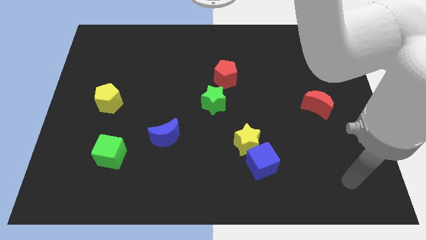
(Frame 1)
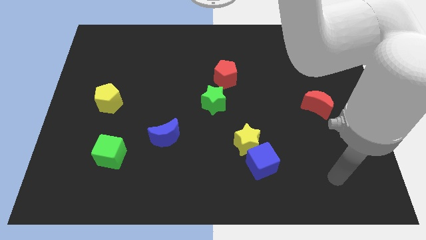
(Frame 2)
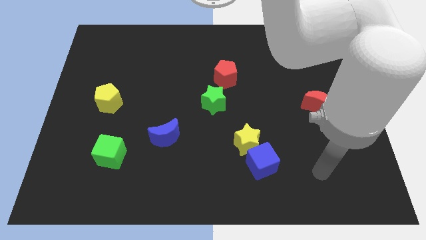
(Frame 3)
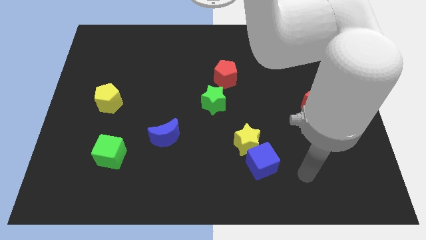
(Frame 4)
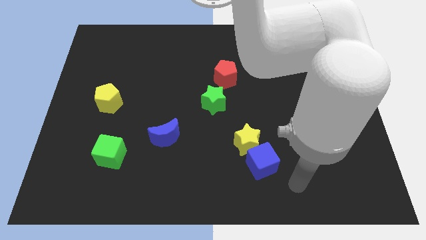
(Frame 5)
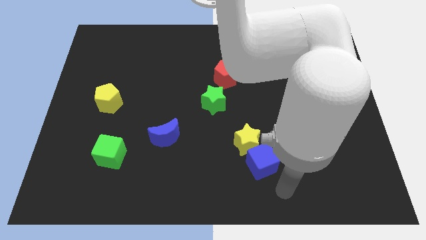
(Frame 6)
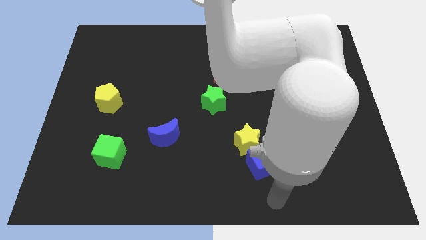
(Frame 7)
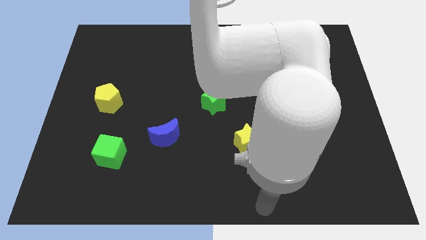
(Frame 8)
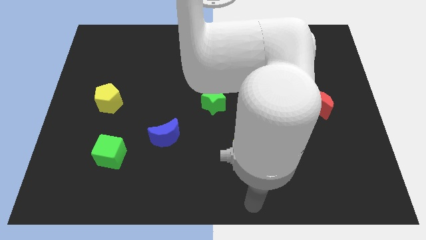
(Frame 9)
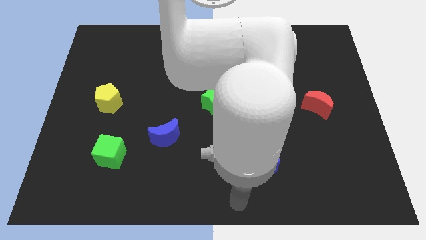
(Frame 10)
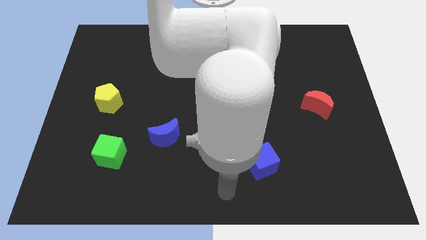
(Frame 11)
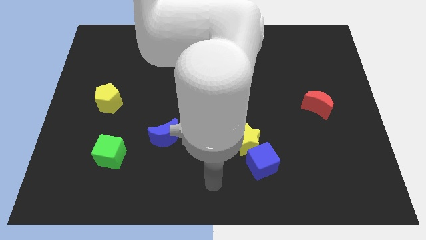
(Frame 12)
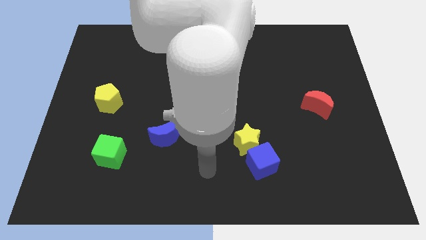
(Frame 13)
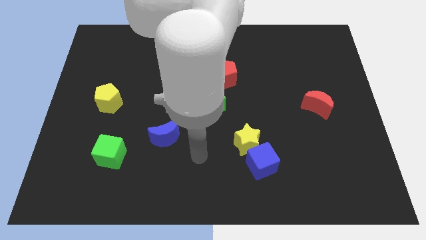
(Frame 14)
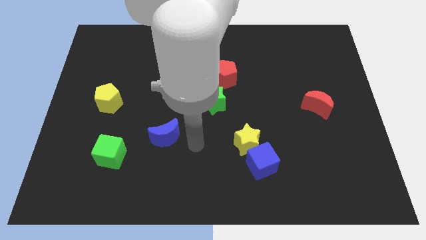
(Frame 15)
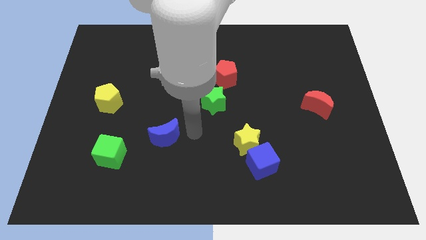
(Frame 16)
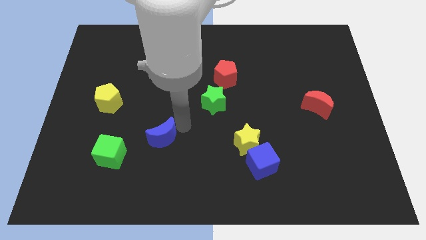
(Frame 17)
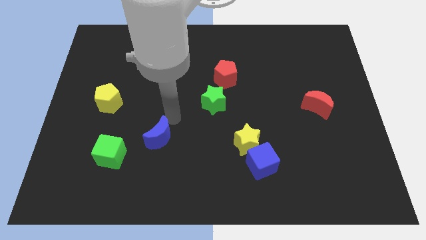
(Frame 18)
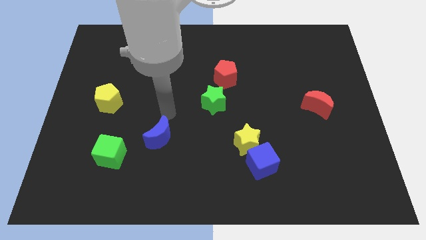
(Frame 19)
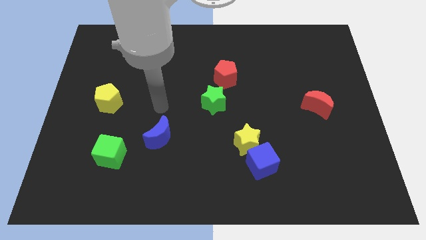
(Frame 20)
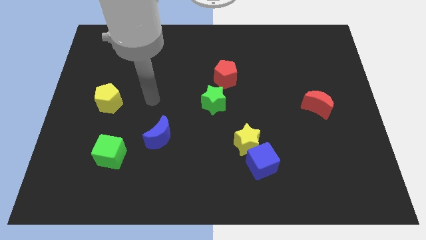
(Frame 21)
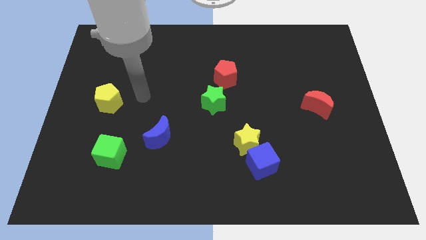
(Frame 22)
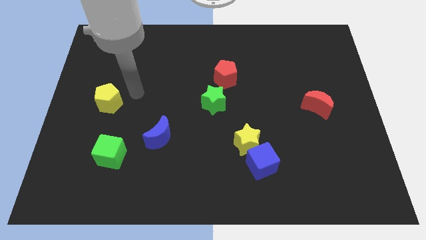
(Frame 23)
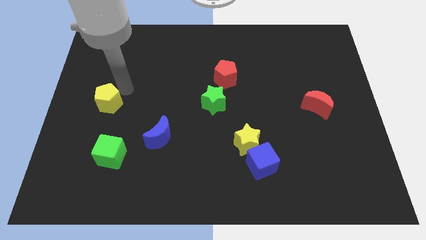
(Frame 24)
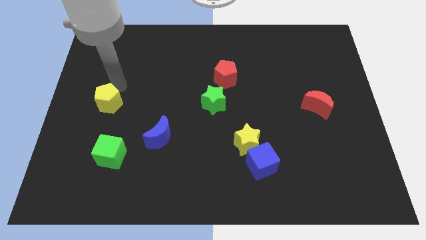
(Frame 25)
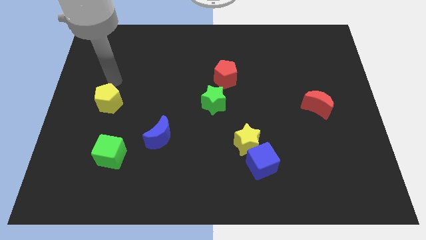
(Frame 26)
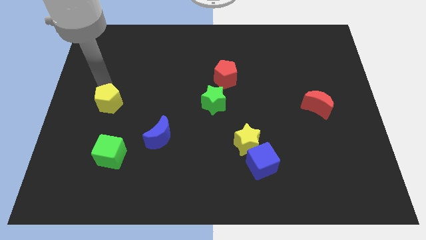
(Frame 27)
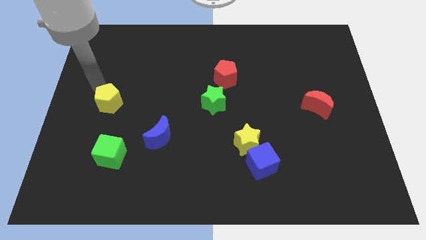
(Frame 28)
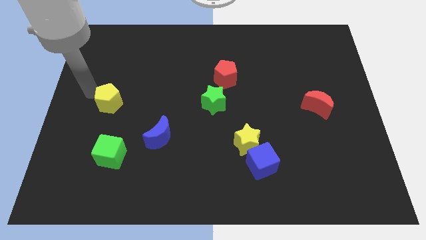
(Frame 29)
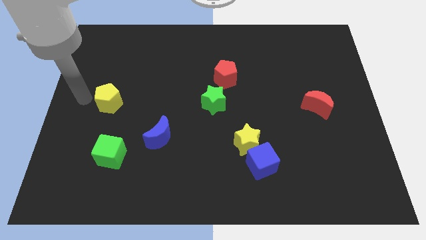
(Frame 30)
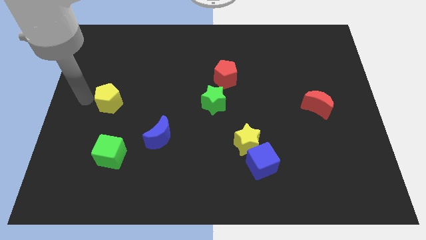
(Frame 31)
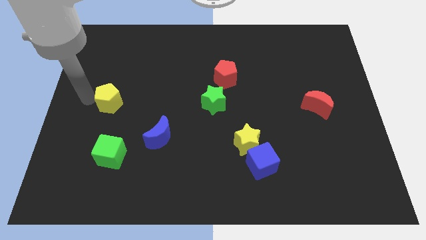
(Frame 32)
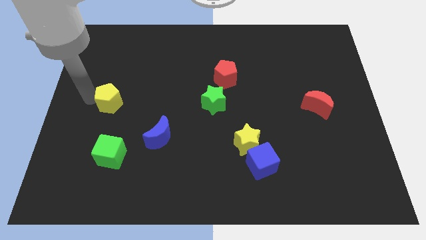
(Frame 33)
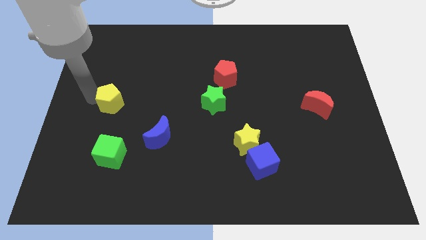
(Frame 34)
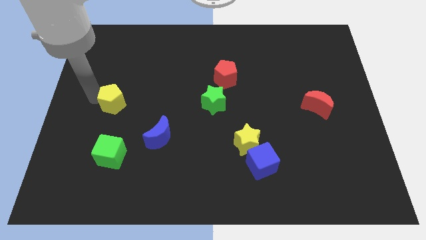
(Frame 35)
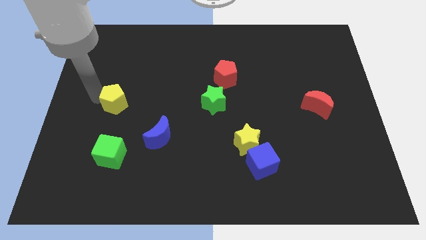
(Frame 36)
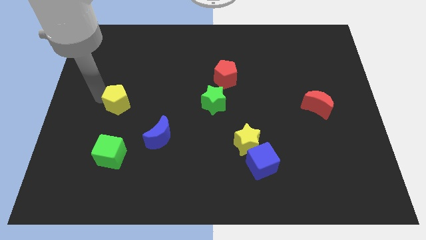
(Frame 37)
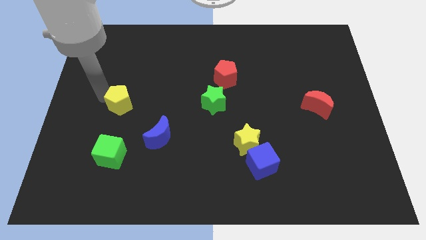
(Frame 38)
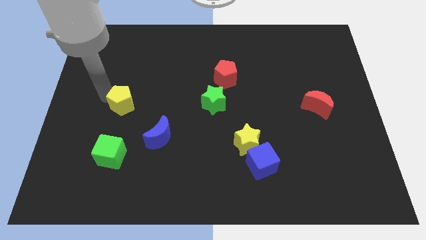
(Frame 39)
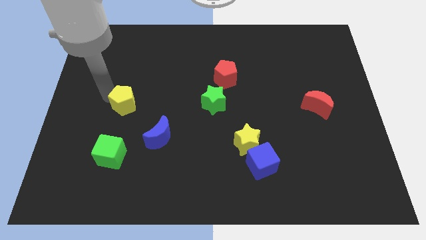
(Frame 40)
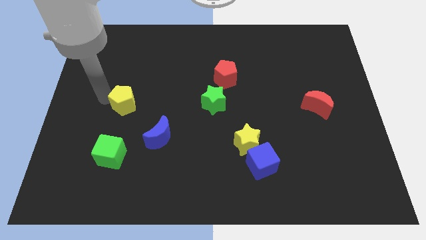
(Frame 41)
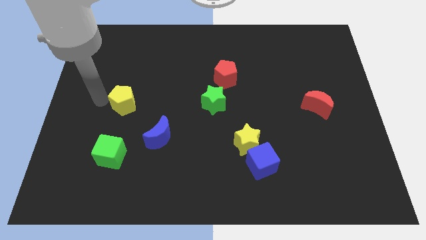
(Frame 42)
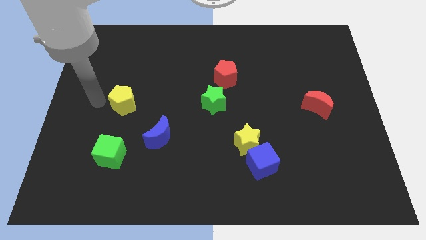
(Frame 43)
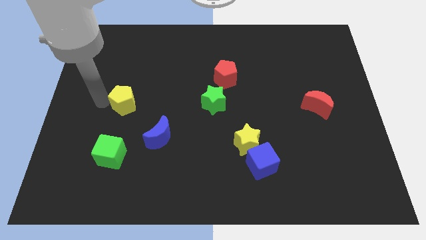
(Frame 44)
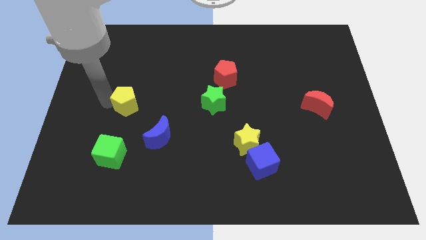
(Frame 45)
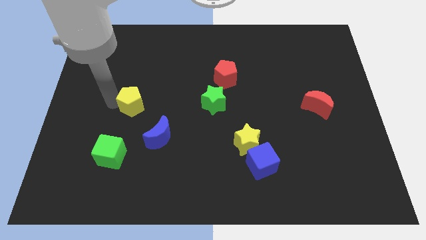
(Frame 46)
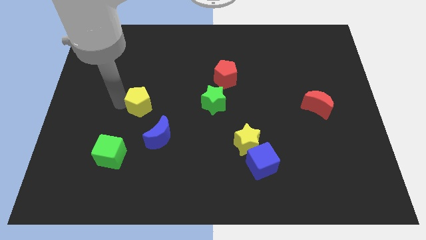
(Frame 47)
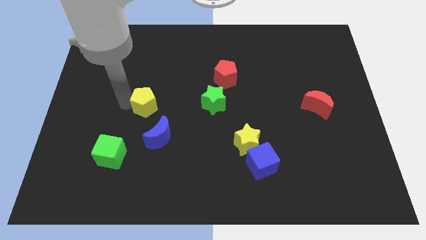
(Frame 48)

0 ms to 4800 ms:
put the yellow pentagon to the top side of the blue moon

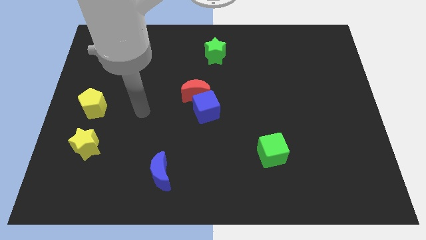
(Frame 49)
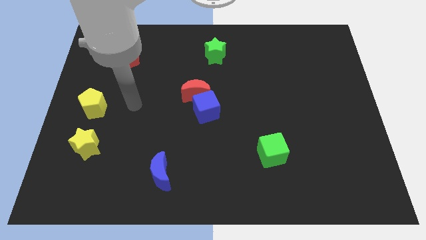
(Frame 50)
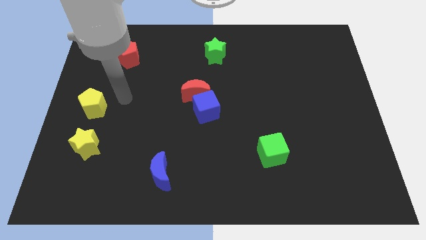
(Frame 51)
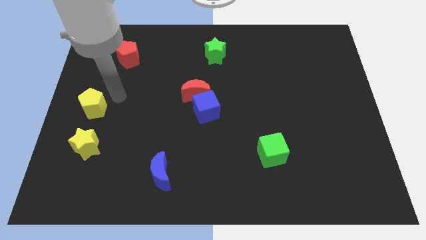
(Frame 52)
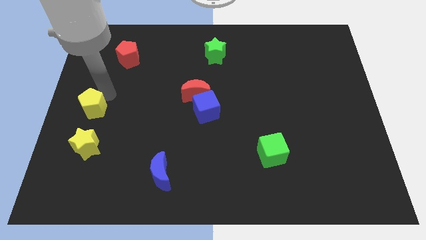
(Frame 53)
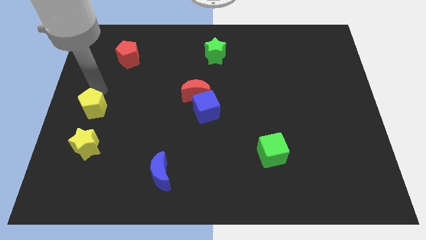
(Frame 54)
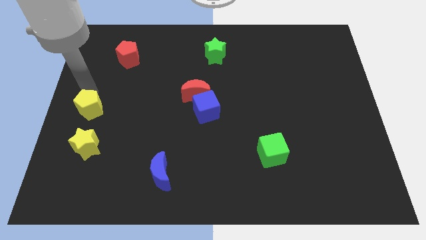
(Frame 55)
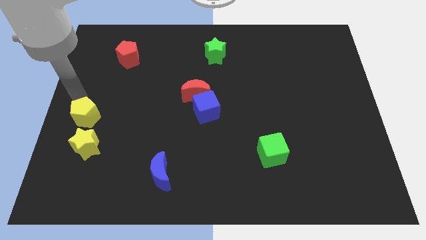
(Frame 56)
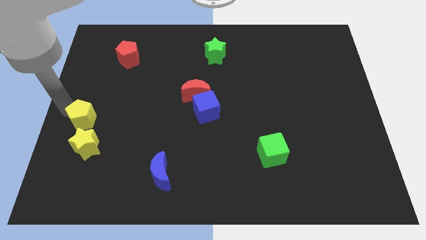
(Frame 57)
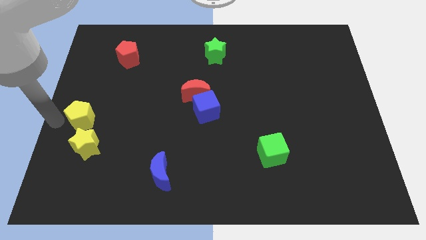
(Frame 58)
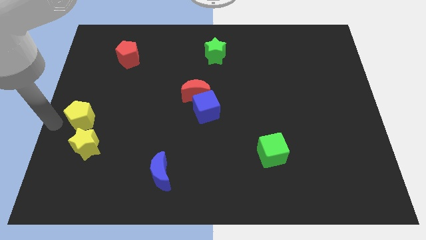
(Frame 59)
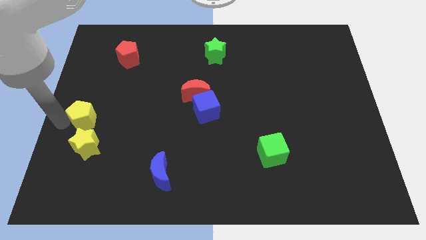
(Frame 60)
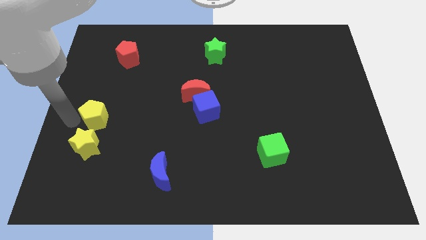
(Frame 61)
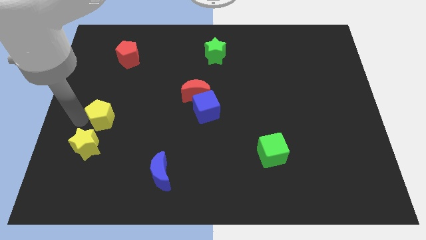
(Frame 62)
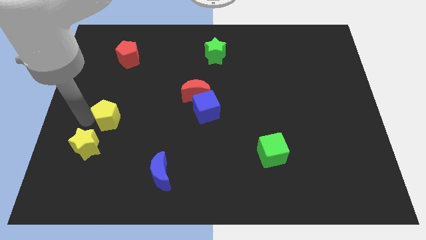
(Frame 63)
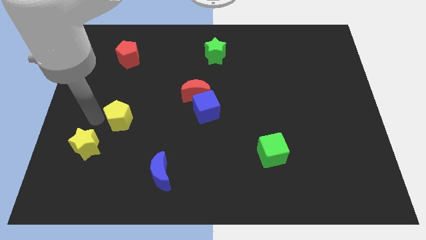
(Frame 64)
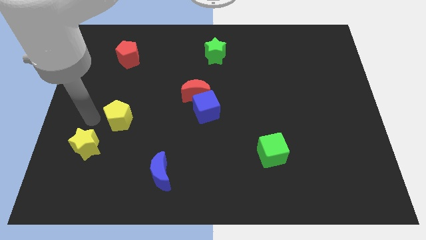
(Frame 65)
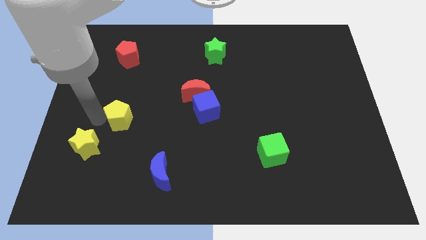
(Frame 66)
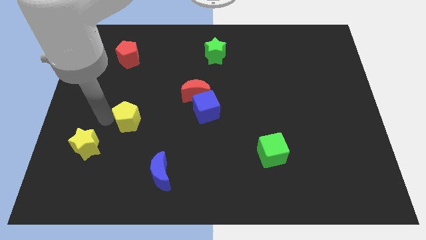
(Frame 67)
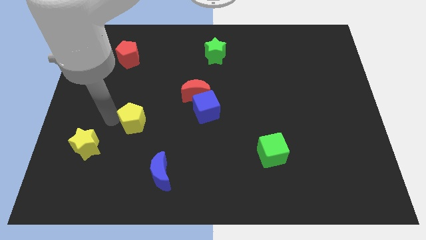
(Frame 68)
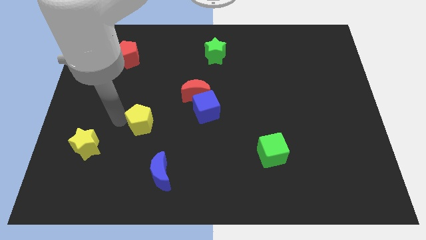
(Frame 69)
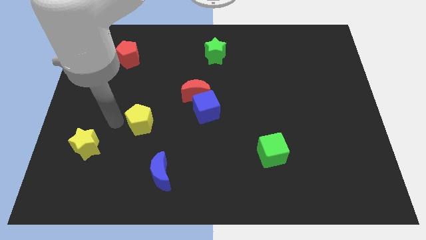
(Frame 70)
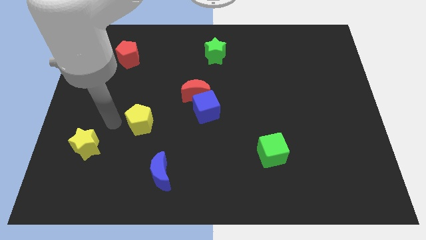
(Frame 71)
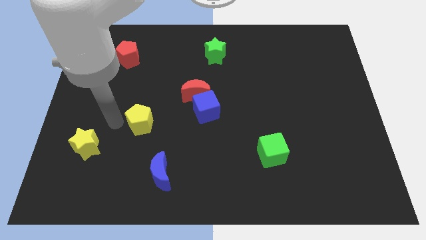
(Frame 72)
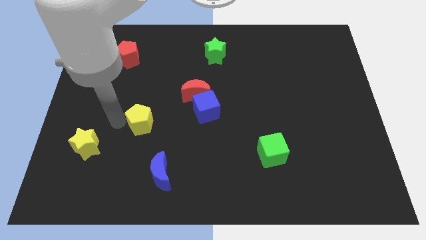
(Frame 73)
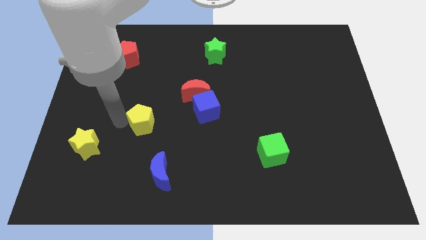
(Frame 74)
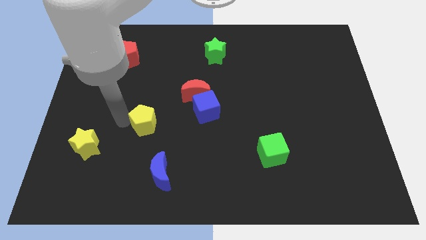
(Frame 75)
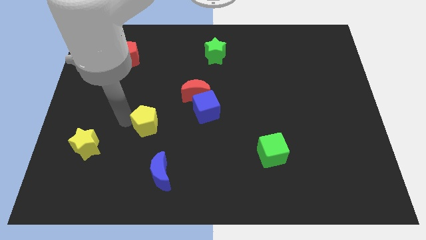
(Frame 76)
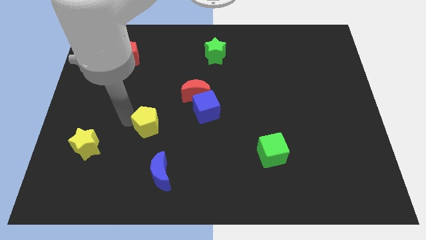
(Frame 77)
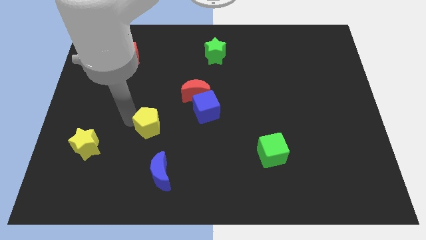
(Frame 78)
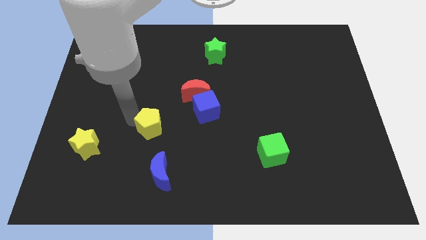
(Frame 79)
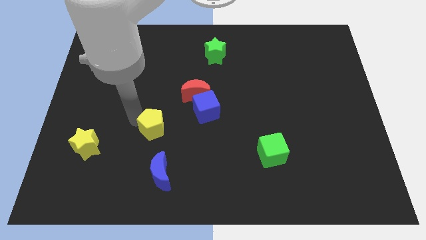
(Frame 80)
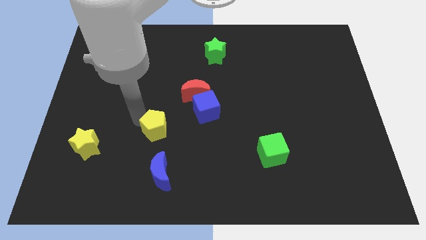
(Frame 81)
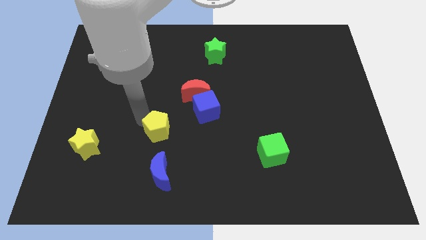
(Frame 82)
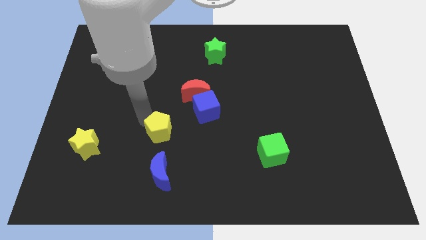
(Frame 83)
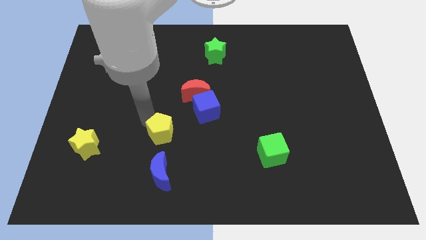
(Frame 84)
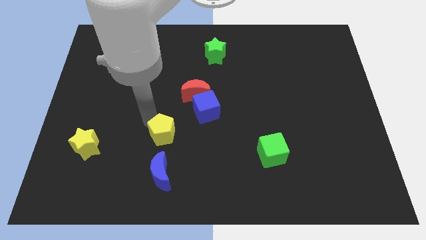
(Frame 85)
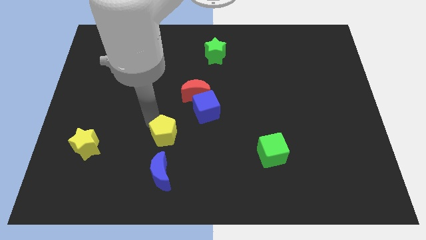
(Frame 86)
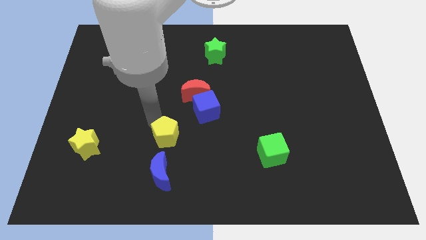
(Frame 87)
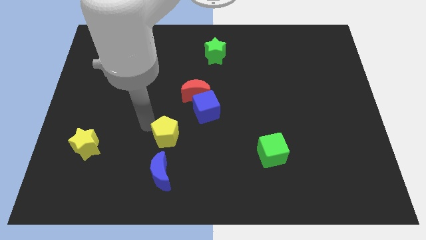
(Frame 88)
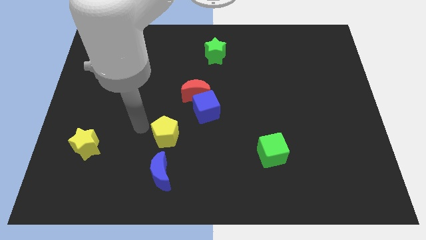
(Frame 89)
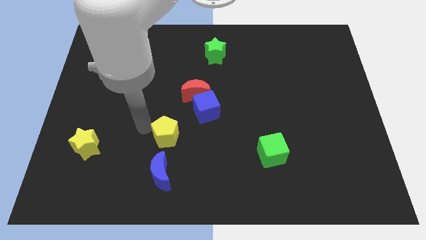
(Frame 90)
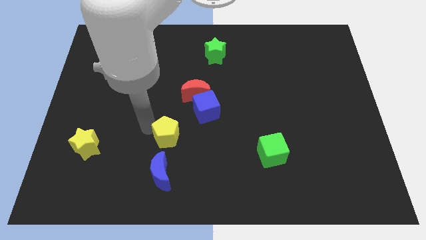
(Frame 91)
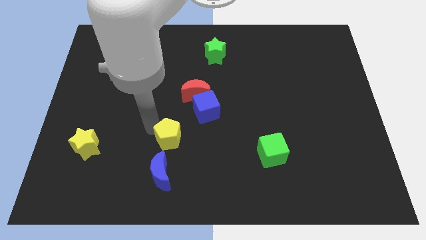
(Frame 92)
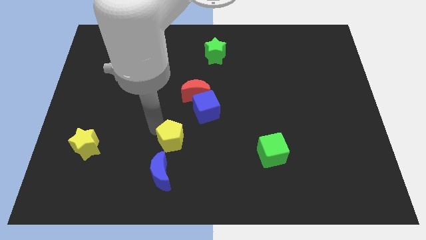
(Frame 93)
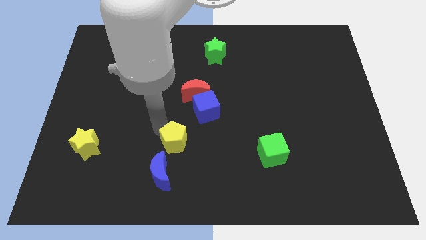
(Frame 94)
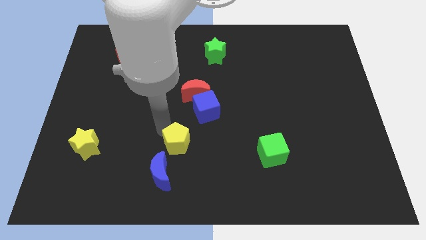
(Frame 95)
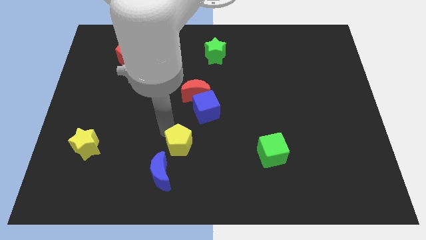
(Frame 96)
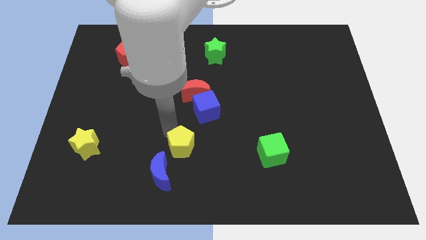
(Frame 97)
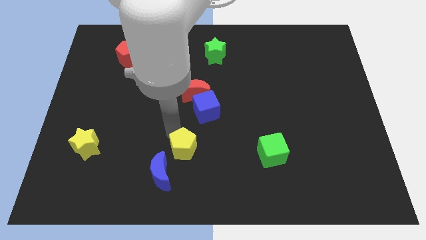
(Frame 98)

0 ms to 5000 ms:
put the yellow pentagon to the bottom side of the blue cube
